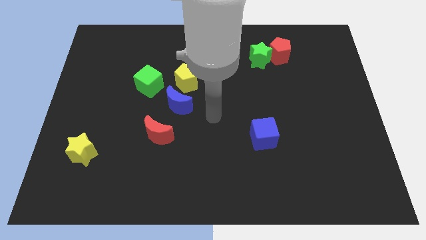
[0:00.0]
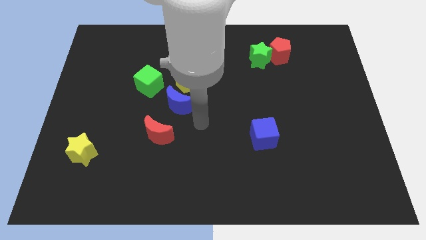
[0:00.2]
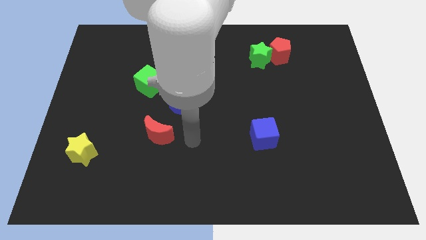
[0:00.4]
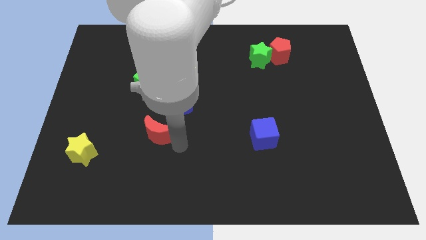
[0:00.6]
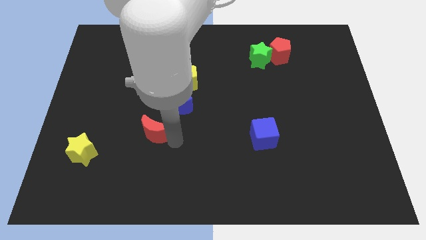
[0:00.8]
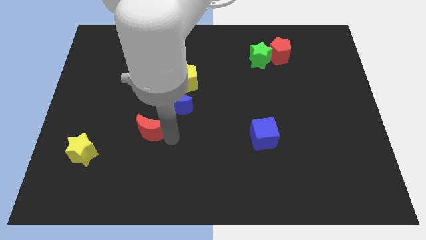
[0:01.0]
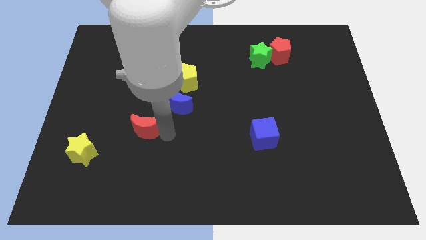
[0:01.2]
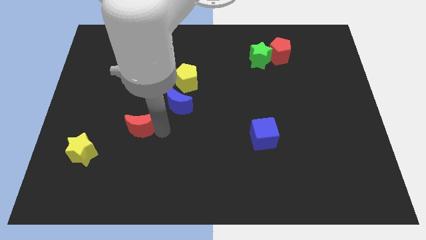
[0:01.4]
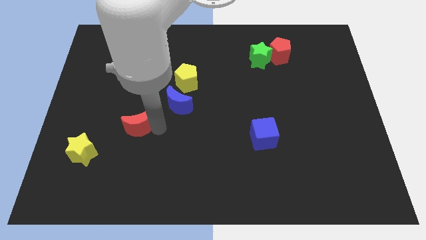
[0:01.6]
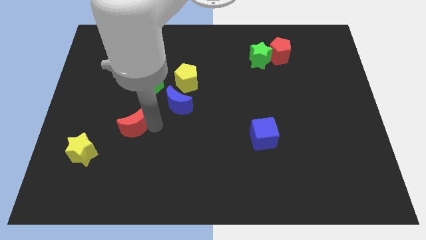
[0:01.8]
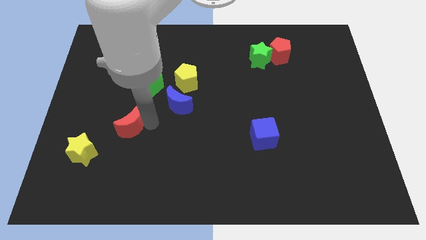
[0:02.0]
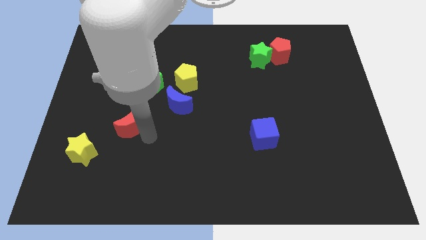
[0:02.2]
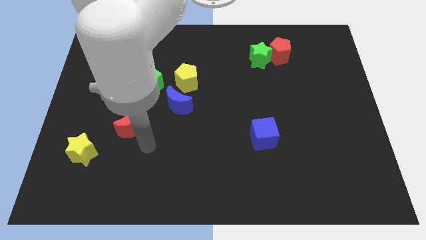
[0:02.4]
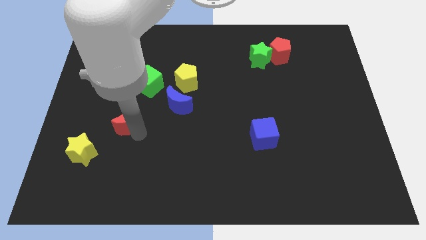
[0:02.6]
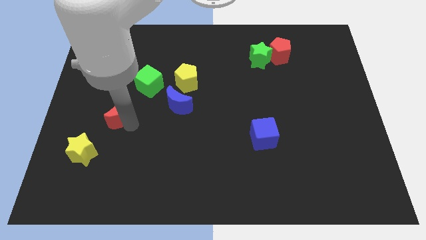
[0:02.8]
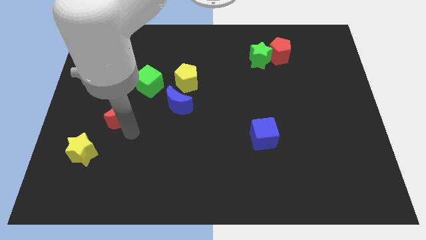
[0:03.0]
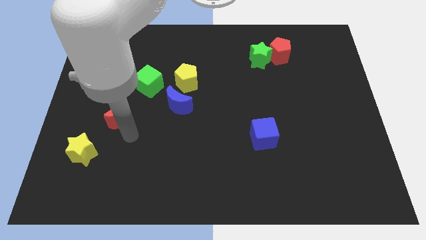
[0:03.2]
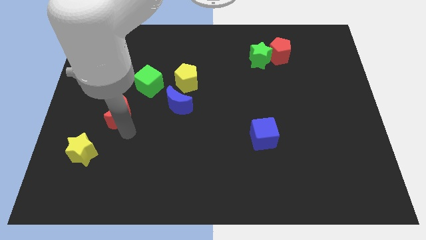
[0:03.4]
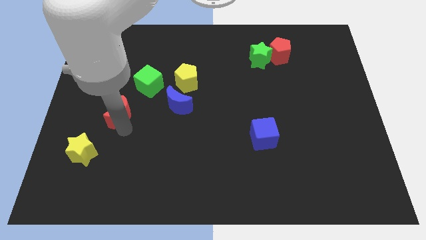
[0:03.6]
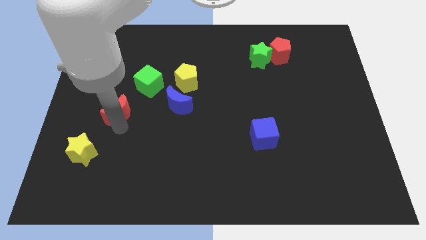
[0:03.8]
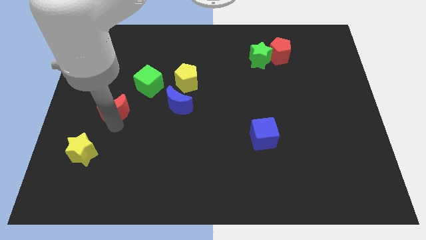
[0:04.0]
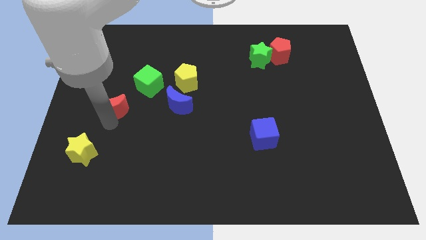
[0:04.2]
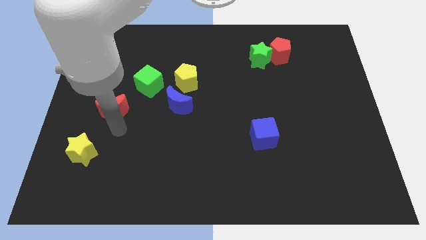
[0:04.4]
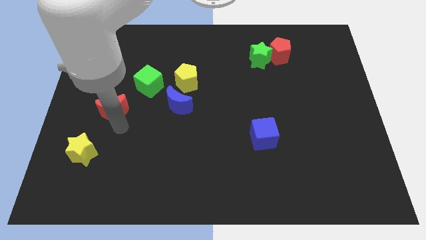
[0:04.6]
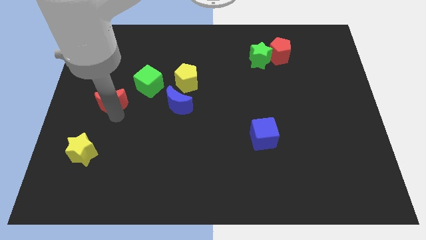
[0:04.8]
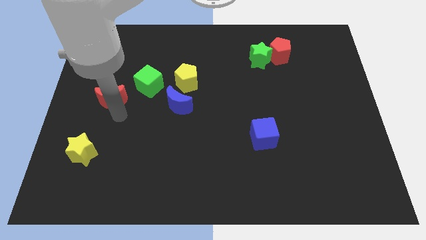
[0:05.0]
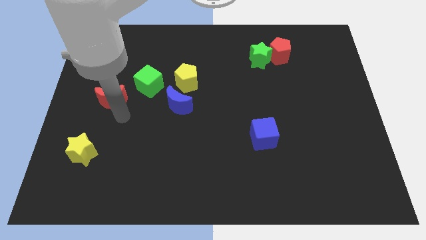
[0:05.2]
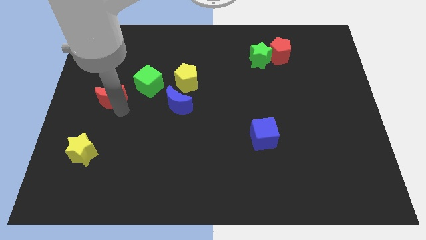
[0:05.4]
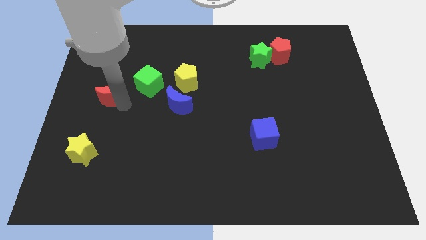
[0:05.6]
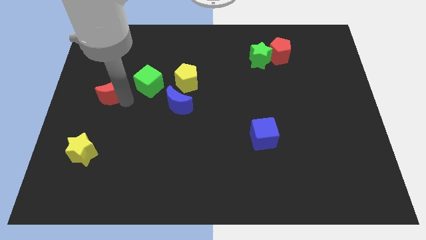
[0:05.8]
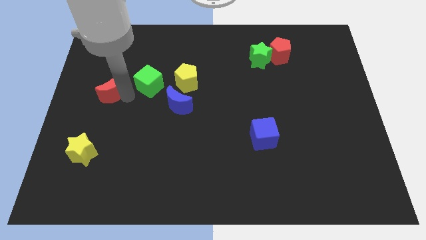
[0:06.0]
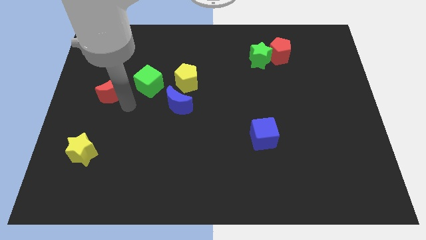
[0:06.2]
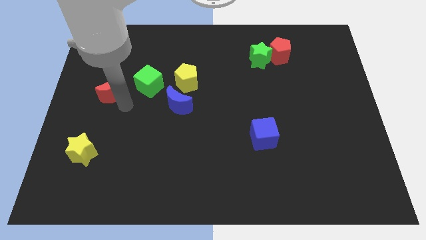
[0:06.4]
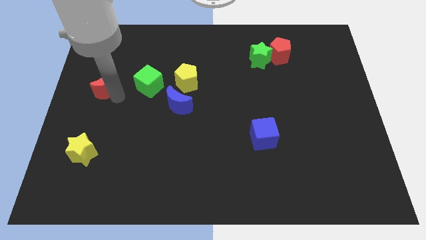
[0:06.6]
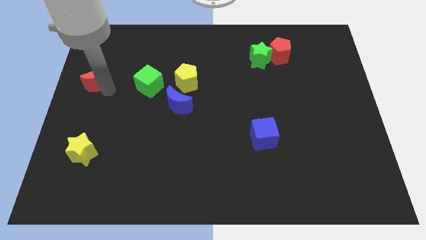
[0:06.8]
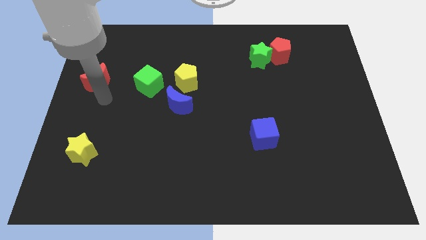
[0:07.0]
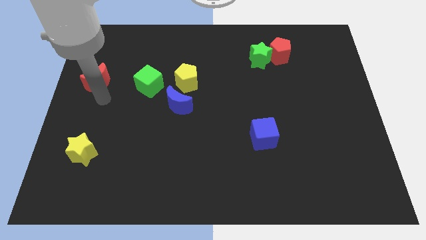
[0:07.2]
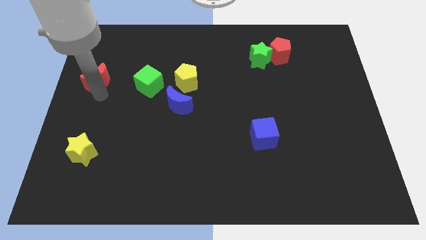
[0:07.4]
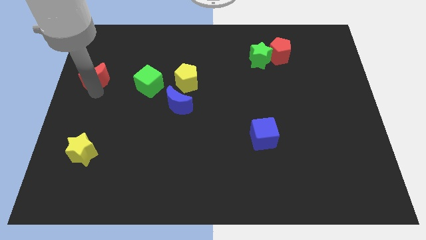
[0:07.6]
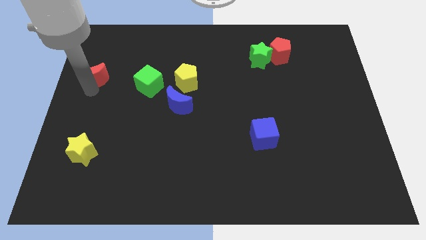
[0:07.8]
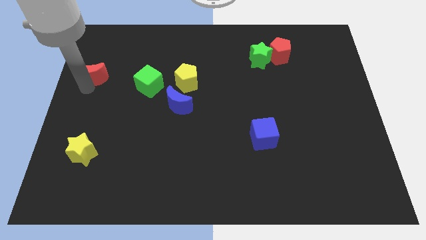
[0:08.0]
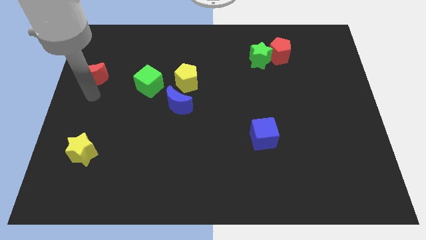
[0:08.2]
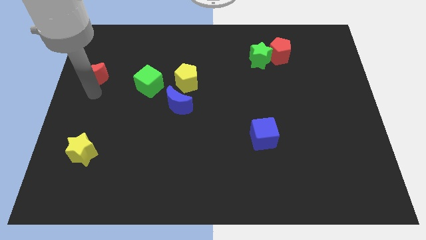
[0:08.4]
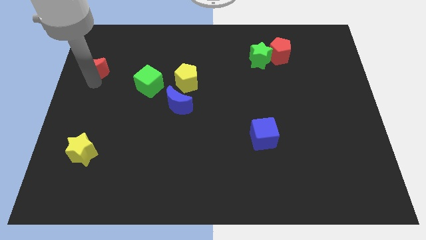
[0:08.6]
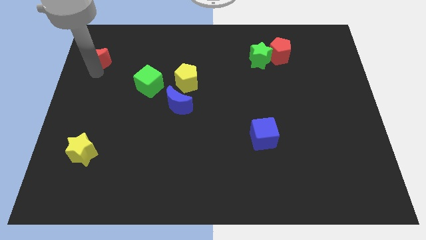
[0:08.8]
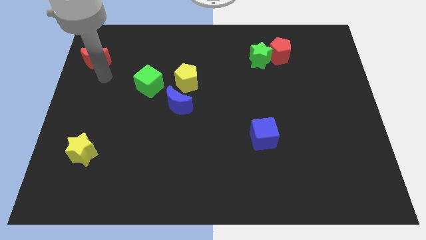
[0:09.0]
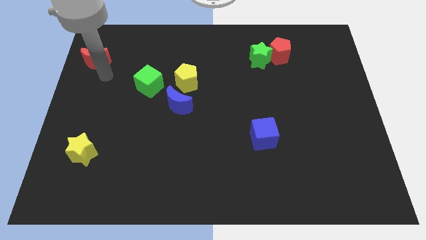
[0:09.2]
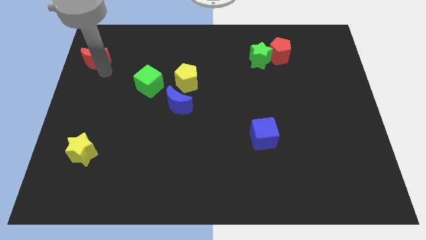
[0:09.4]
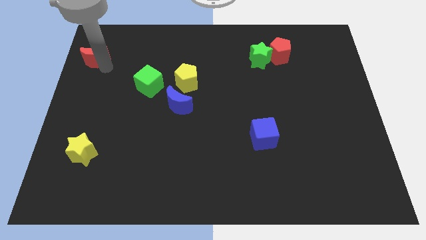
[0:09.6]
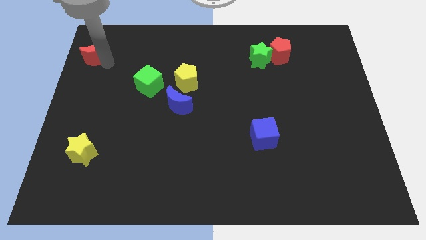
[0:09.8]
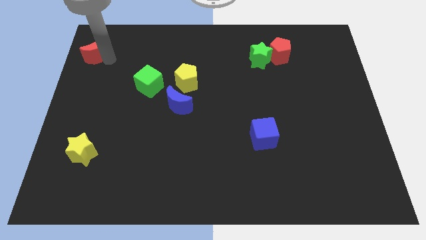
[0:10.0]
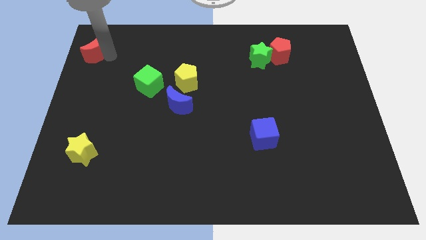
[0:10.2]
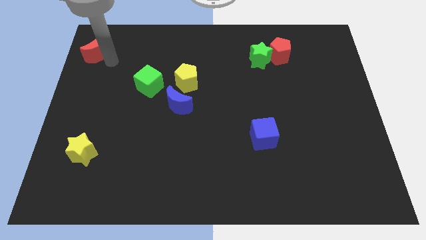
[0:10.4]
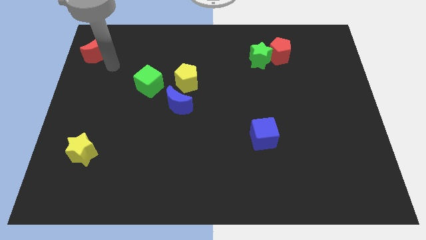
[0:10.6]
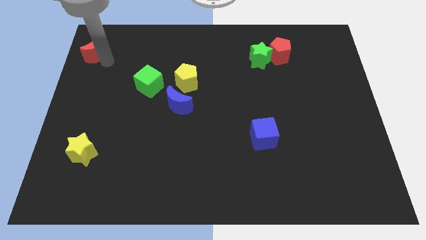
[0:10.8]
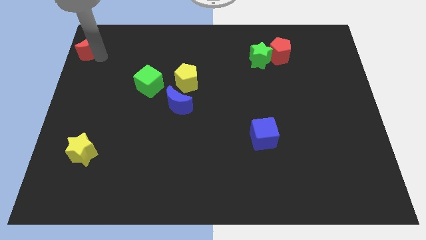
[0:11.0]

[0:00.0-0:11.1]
put the red moon to the upper left corner

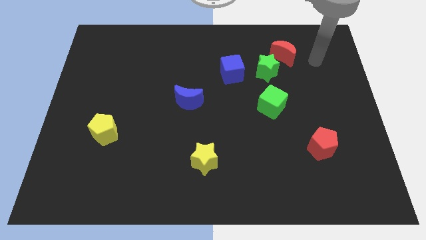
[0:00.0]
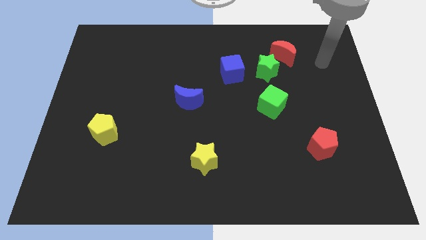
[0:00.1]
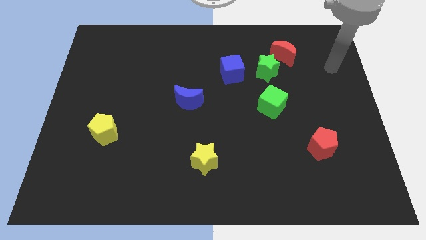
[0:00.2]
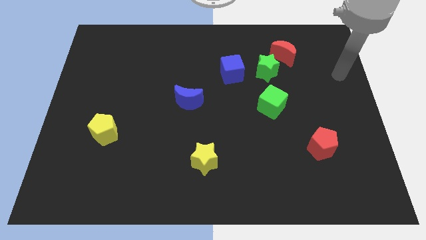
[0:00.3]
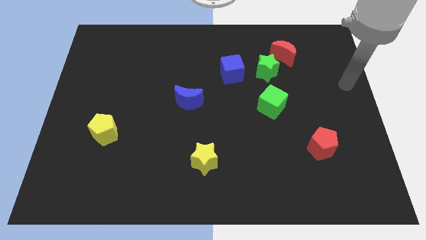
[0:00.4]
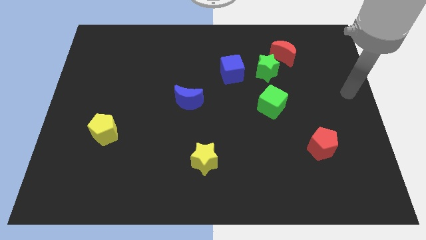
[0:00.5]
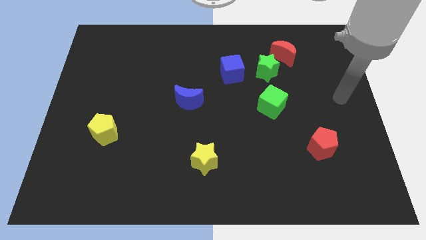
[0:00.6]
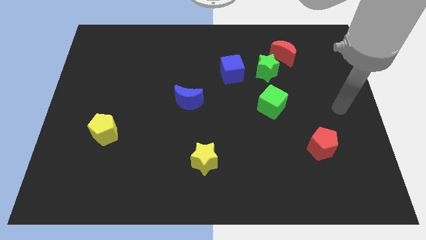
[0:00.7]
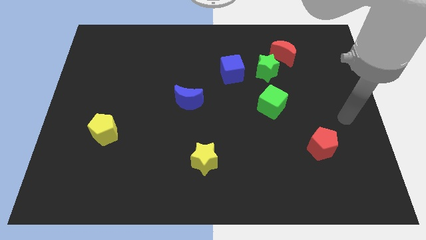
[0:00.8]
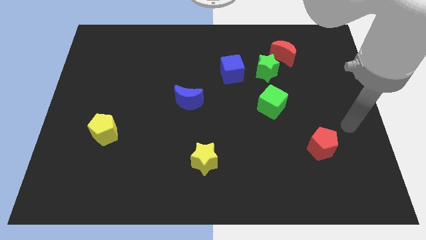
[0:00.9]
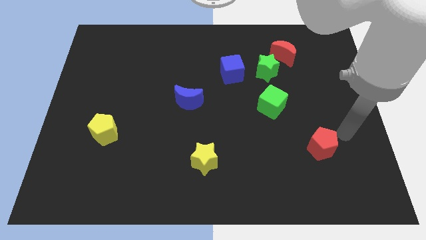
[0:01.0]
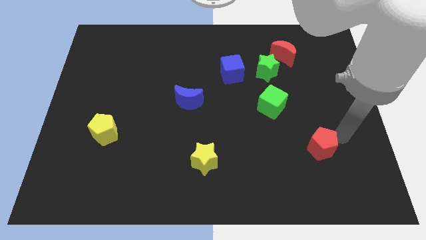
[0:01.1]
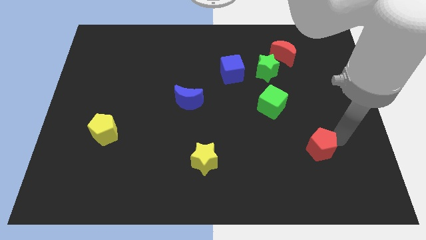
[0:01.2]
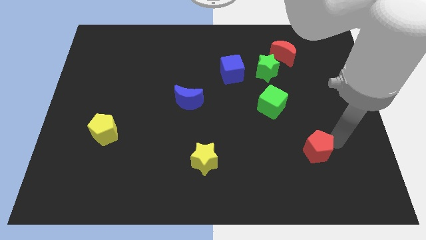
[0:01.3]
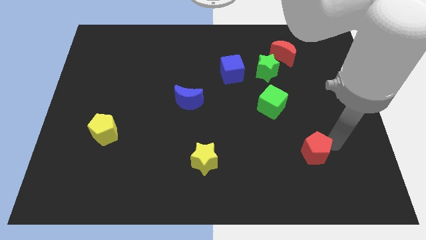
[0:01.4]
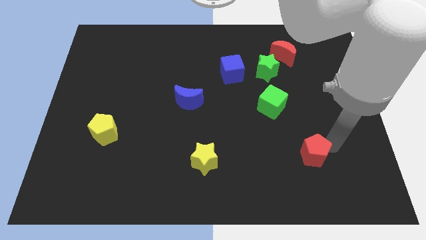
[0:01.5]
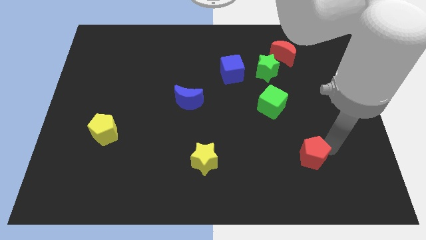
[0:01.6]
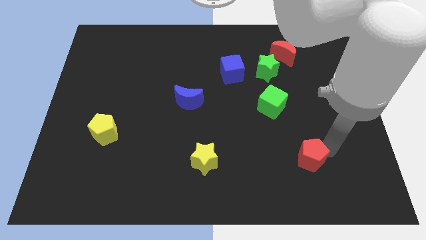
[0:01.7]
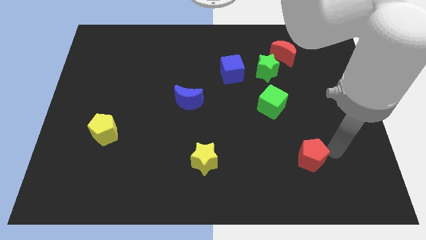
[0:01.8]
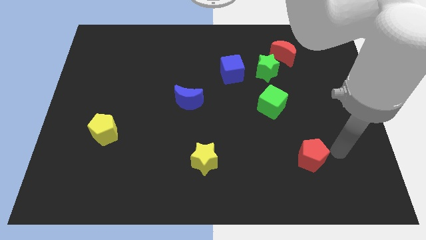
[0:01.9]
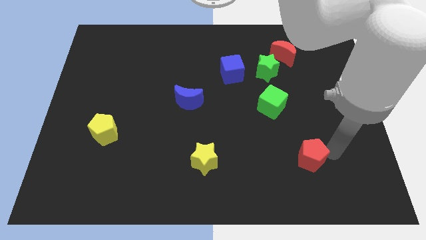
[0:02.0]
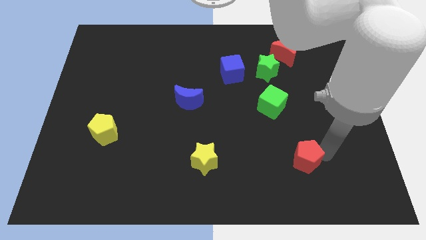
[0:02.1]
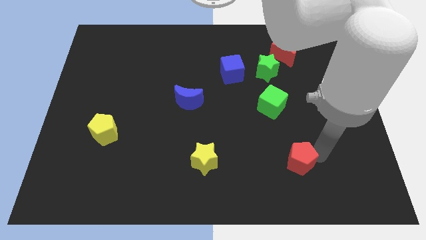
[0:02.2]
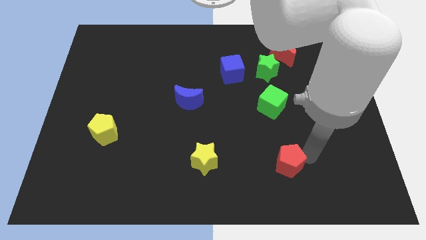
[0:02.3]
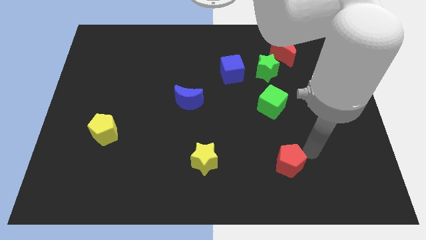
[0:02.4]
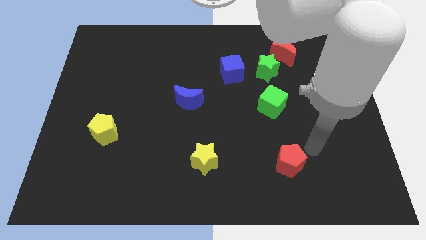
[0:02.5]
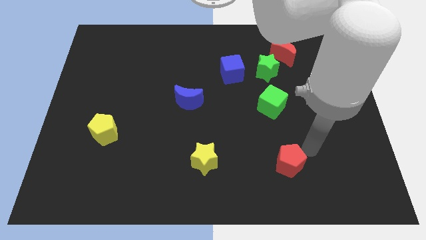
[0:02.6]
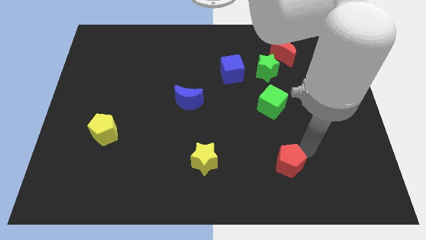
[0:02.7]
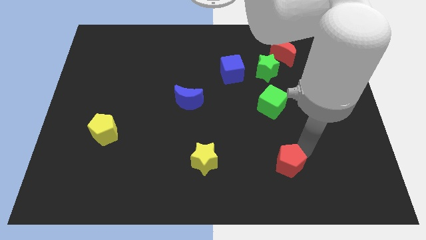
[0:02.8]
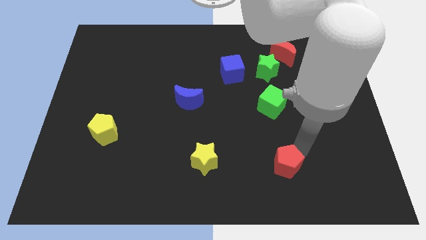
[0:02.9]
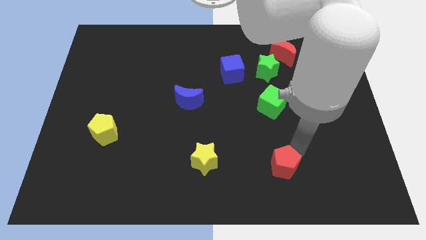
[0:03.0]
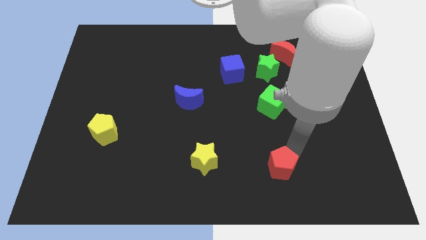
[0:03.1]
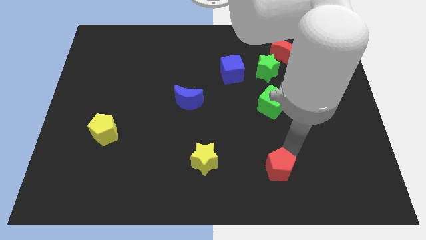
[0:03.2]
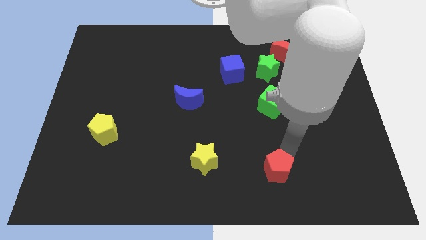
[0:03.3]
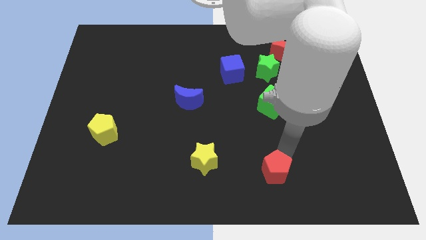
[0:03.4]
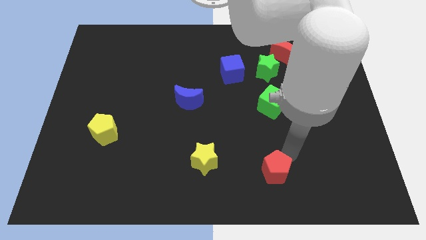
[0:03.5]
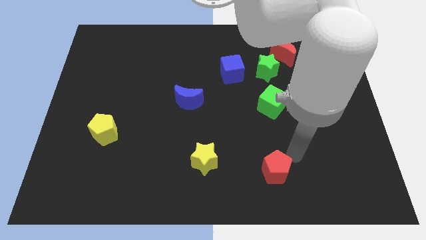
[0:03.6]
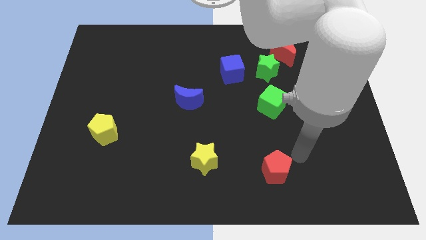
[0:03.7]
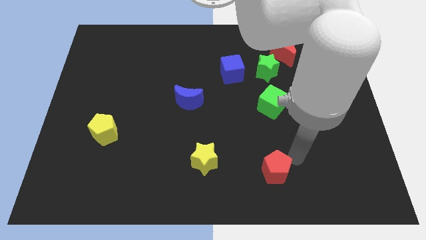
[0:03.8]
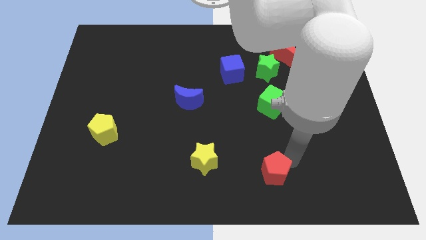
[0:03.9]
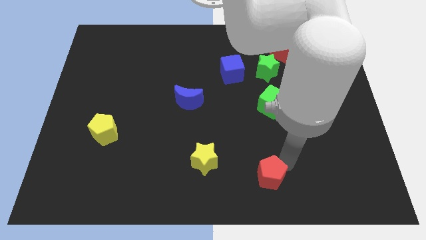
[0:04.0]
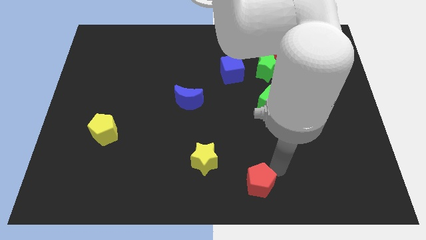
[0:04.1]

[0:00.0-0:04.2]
move the red pentagon to the bottom side
